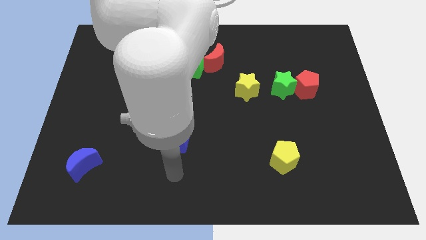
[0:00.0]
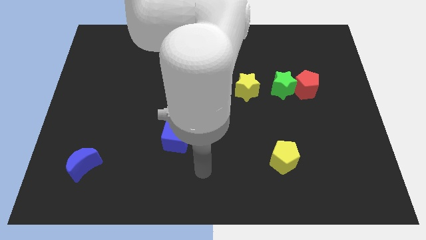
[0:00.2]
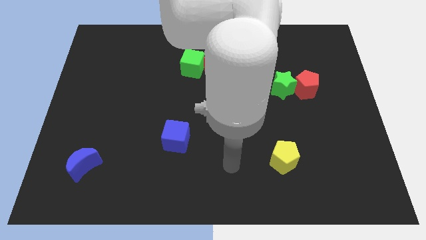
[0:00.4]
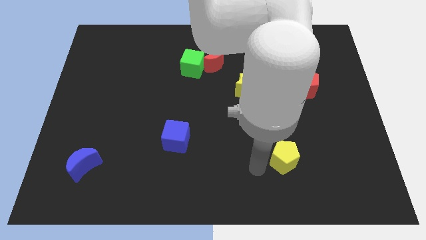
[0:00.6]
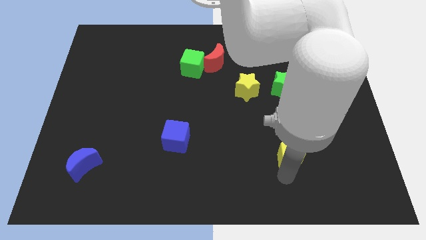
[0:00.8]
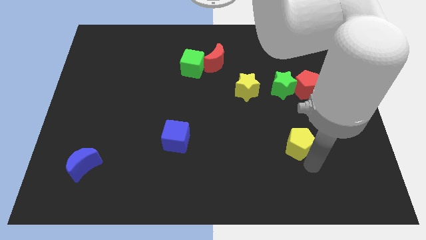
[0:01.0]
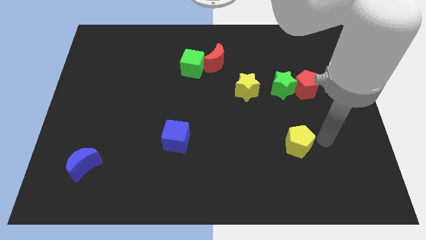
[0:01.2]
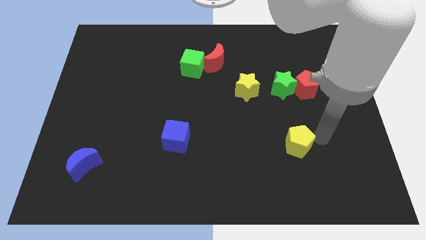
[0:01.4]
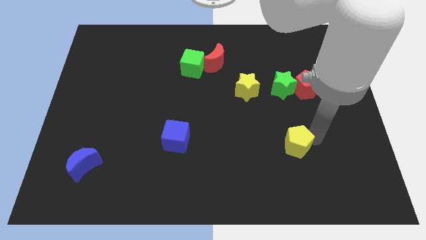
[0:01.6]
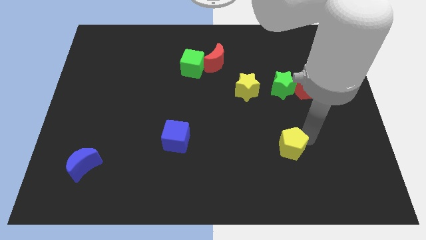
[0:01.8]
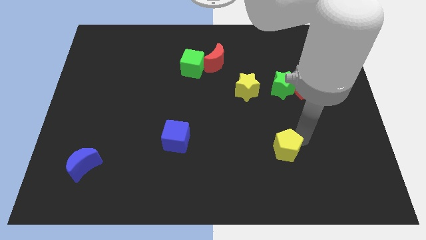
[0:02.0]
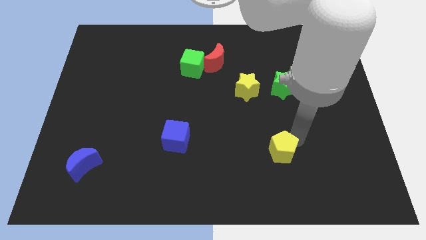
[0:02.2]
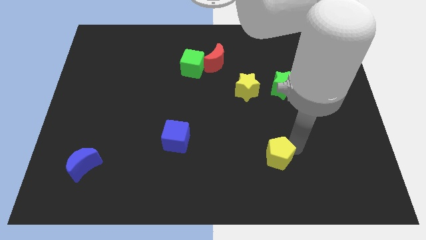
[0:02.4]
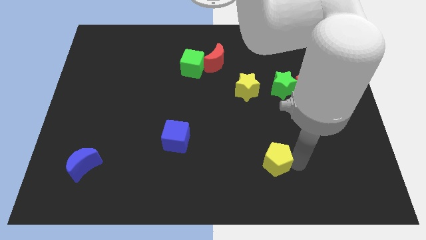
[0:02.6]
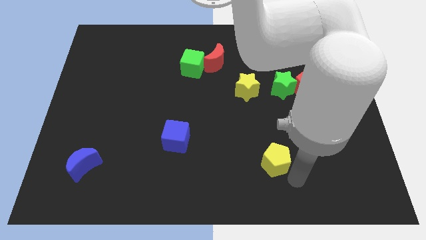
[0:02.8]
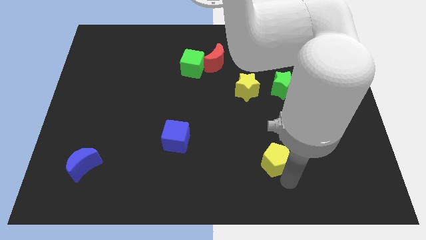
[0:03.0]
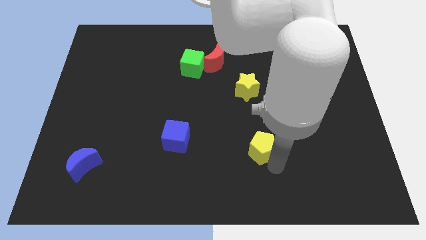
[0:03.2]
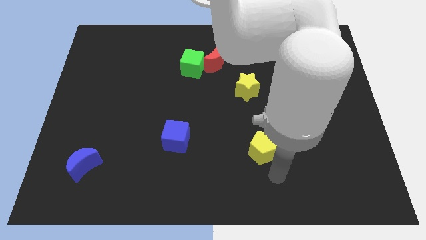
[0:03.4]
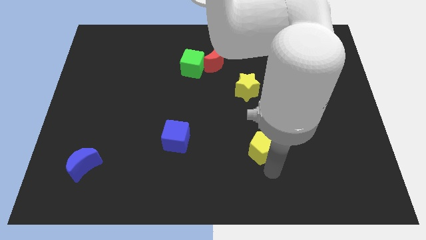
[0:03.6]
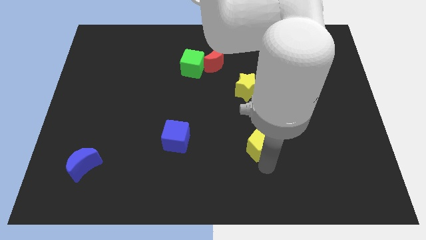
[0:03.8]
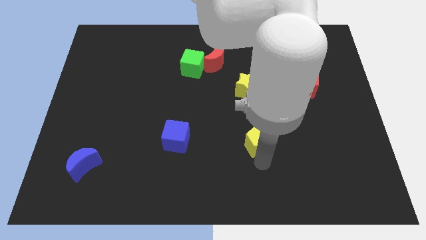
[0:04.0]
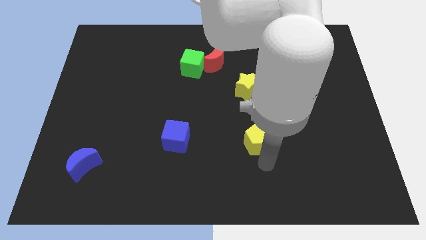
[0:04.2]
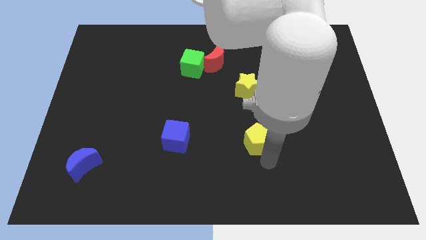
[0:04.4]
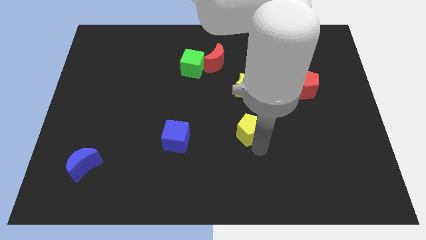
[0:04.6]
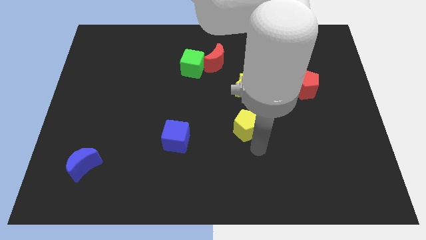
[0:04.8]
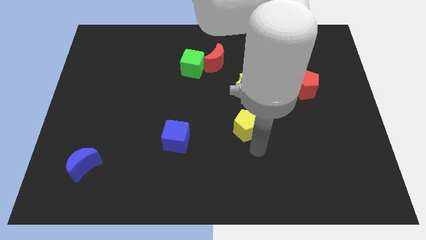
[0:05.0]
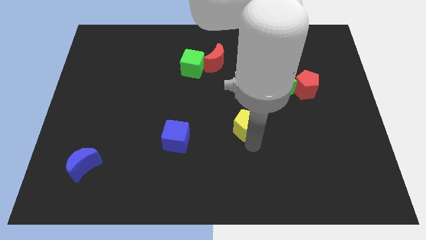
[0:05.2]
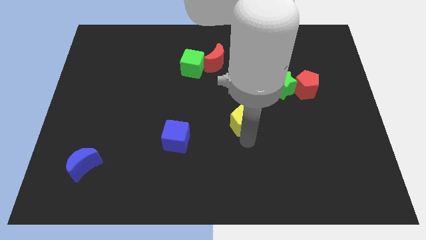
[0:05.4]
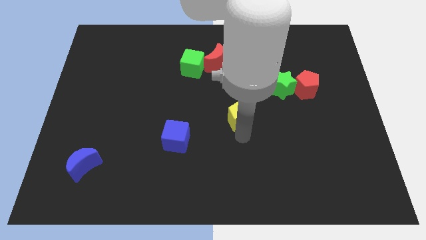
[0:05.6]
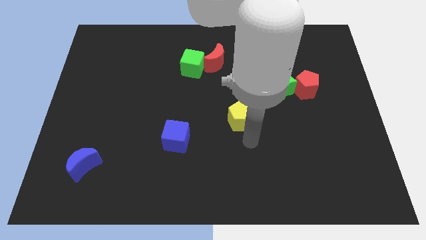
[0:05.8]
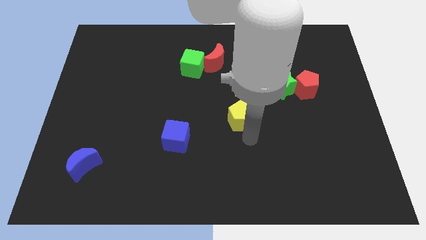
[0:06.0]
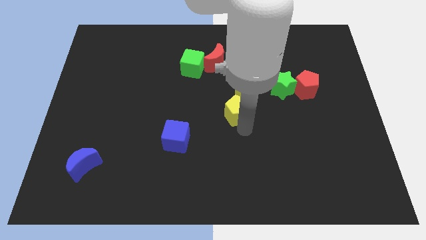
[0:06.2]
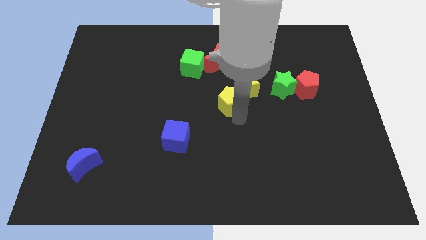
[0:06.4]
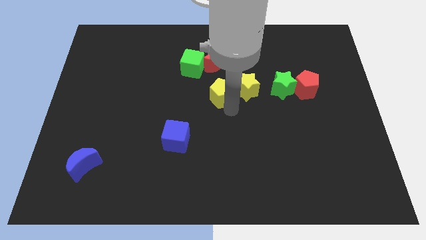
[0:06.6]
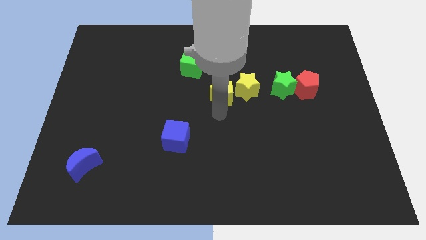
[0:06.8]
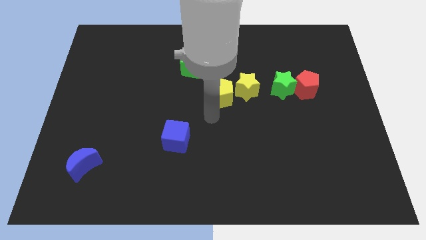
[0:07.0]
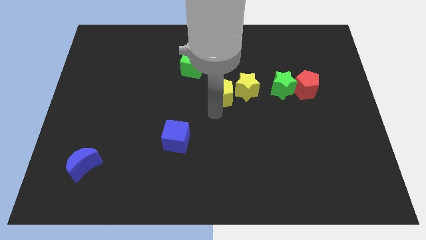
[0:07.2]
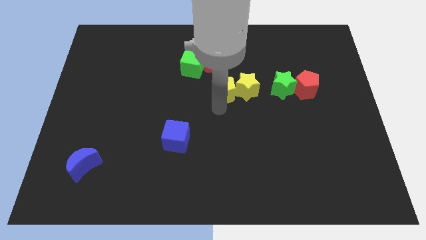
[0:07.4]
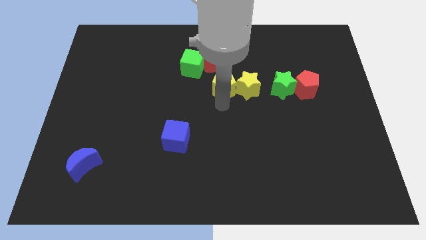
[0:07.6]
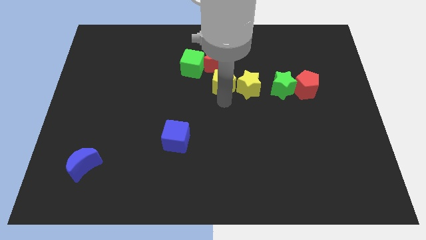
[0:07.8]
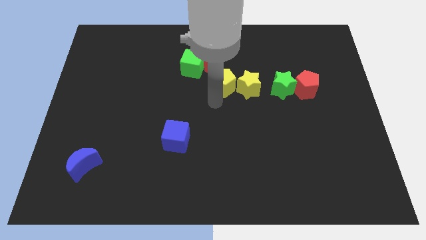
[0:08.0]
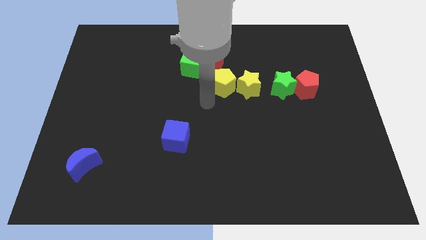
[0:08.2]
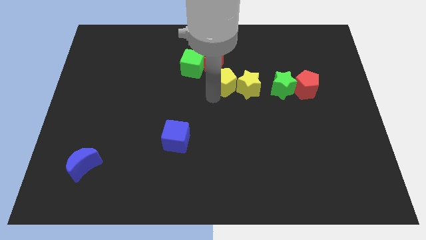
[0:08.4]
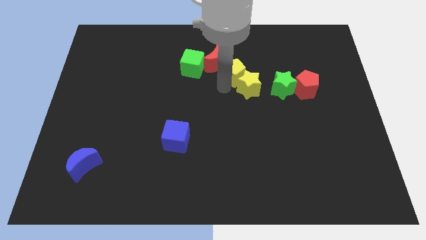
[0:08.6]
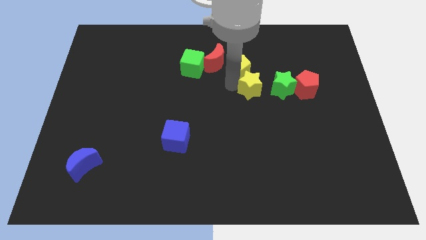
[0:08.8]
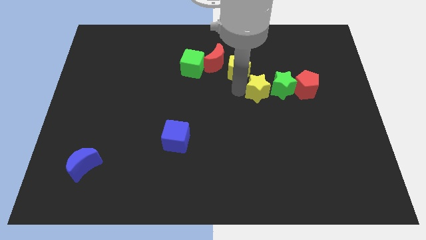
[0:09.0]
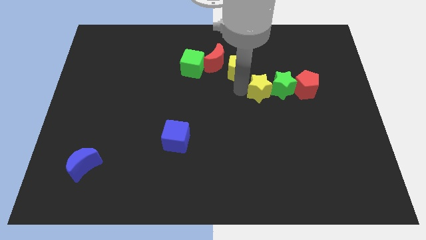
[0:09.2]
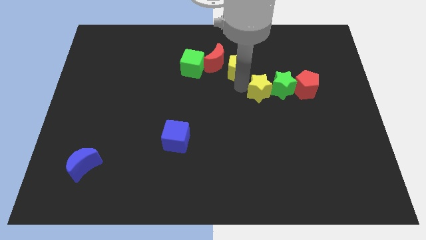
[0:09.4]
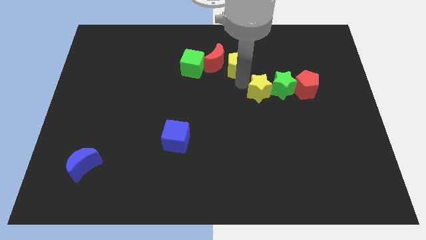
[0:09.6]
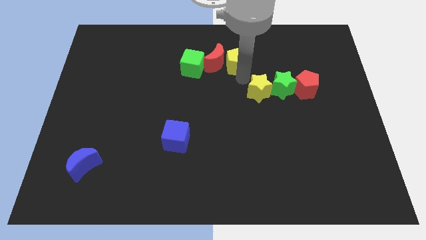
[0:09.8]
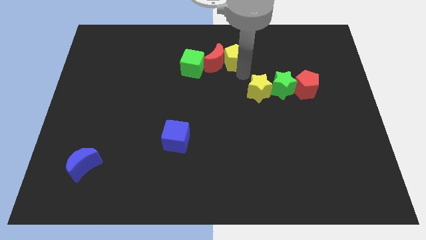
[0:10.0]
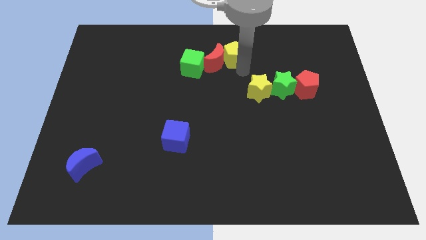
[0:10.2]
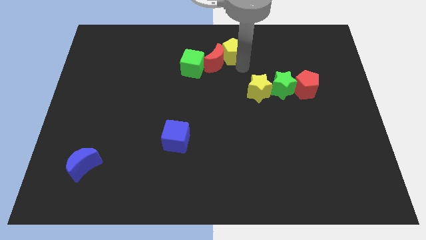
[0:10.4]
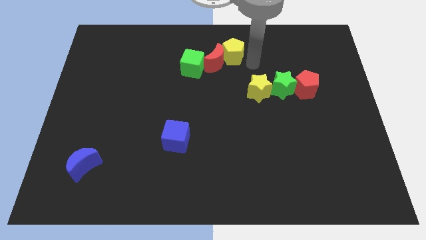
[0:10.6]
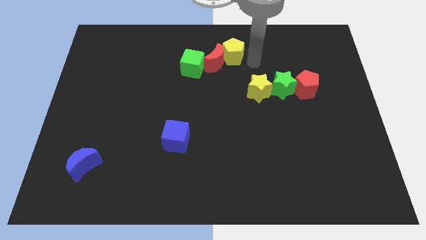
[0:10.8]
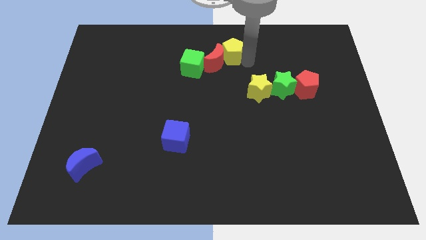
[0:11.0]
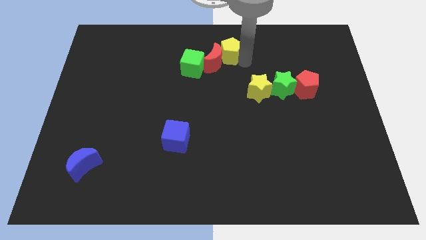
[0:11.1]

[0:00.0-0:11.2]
slide the yellow pentagon to the top side

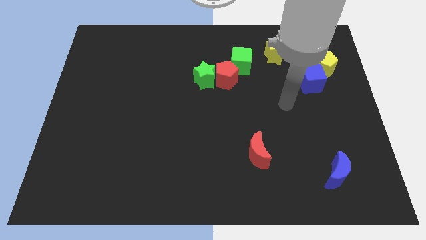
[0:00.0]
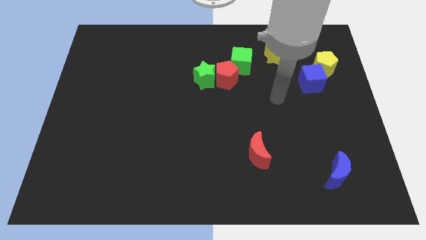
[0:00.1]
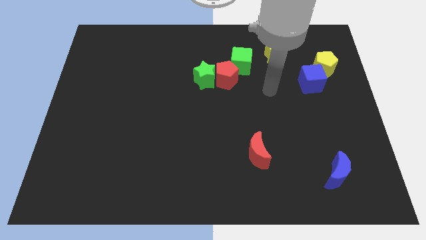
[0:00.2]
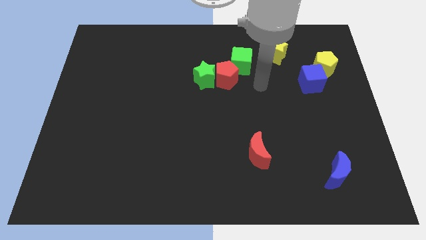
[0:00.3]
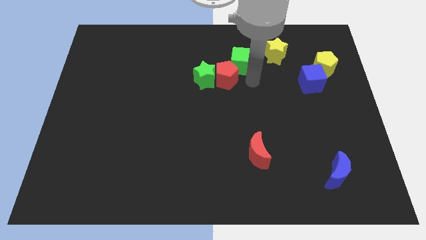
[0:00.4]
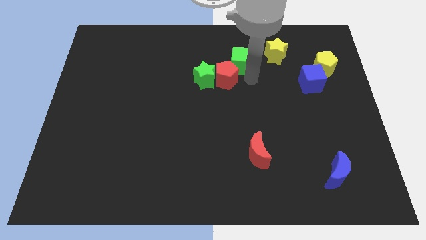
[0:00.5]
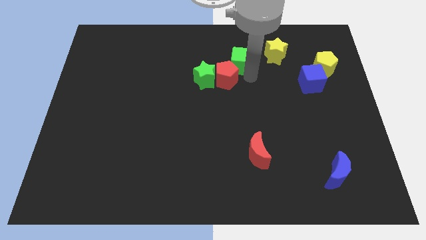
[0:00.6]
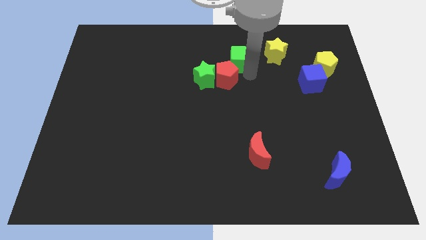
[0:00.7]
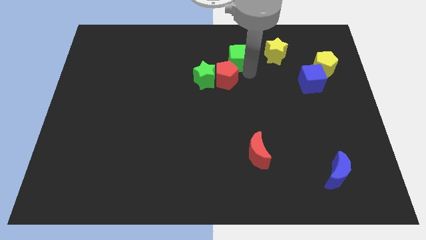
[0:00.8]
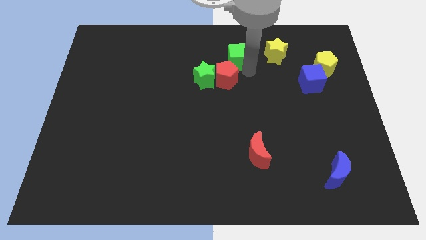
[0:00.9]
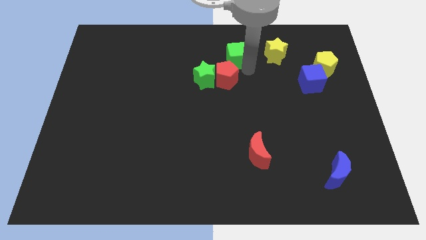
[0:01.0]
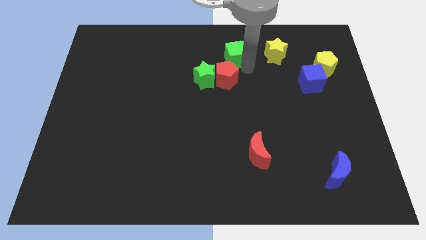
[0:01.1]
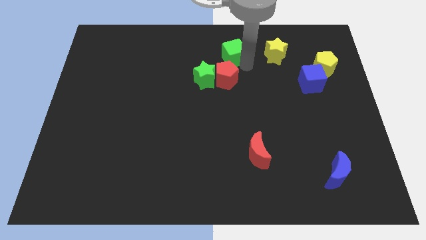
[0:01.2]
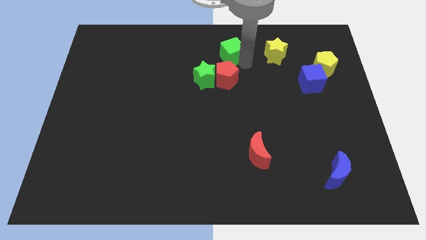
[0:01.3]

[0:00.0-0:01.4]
push the green cube to the top
